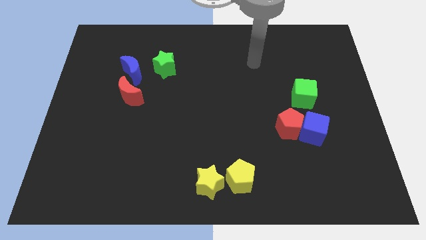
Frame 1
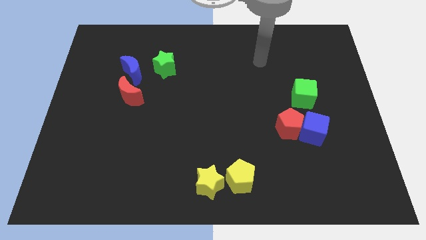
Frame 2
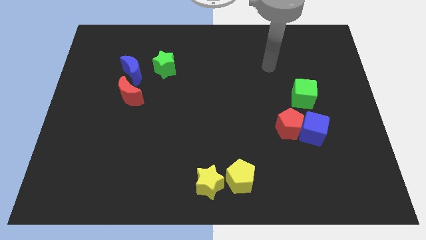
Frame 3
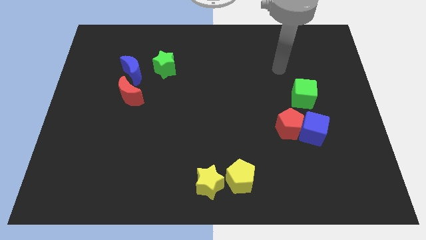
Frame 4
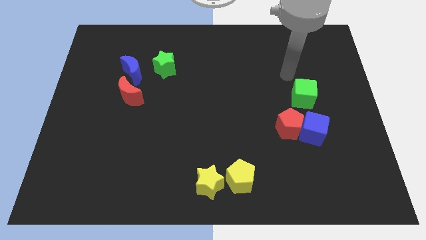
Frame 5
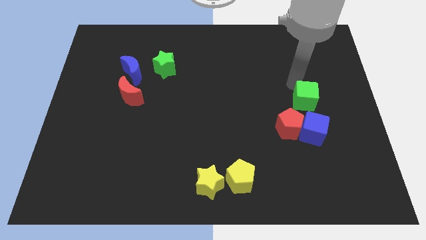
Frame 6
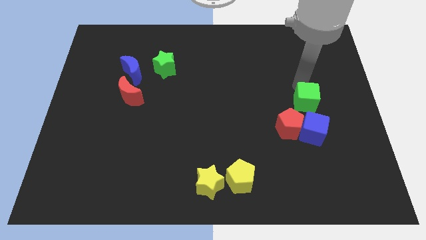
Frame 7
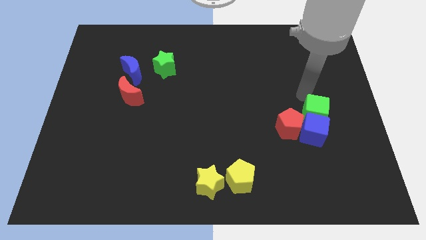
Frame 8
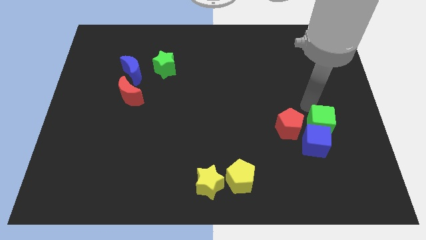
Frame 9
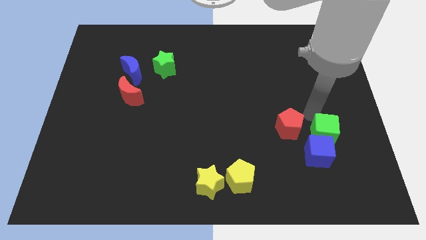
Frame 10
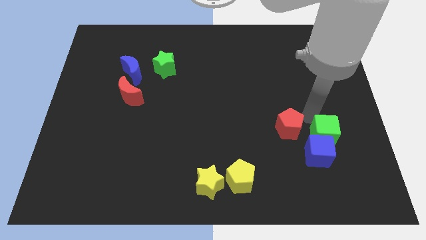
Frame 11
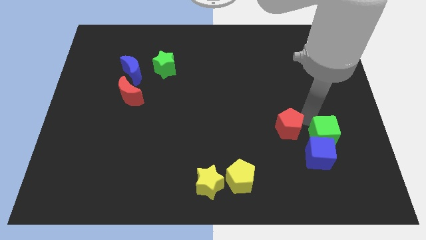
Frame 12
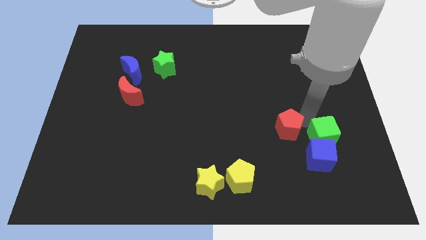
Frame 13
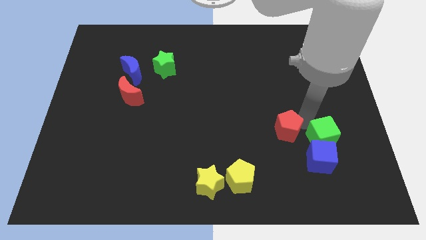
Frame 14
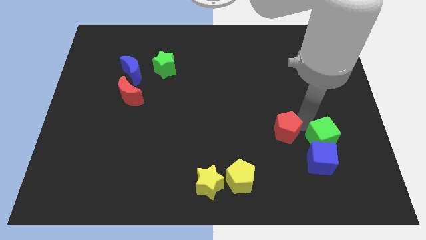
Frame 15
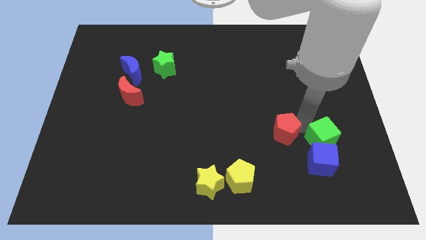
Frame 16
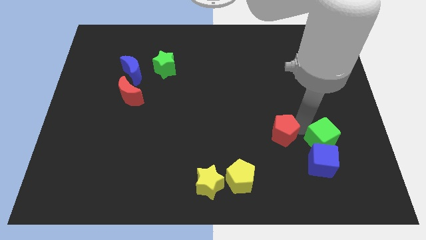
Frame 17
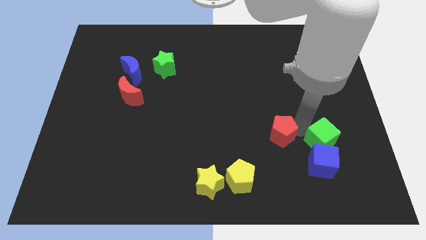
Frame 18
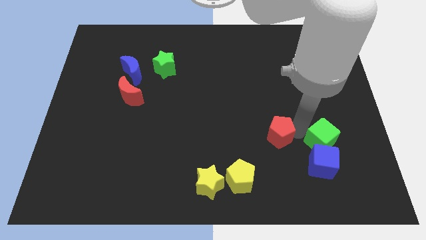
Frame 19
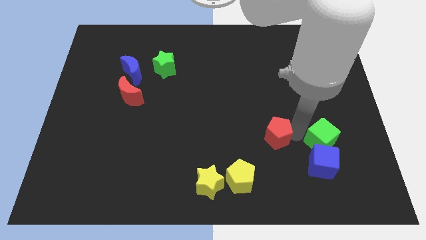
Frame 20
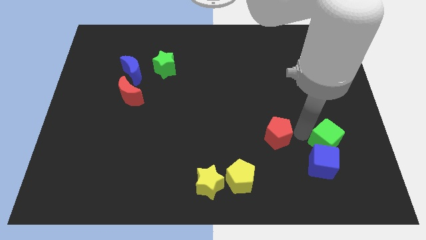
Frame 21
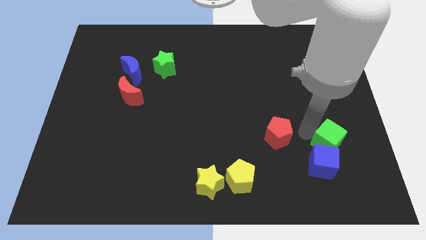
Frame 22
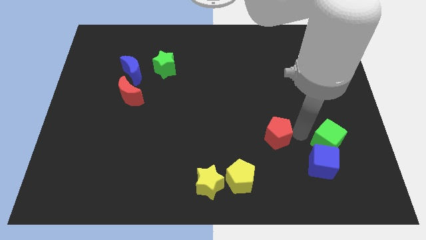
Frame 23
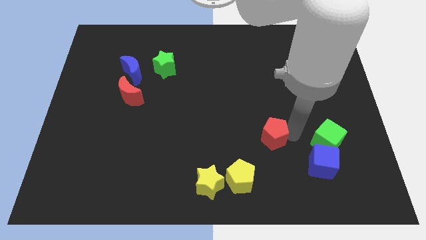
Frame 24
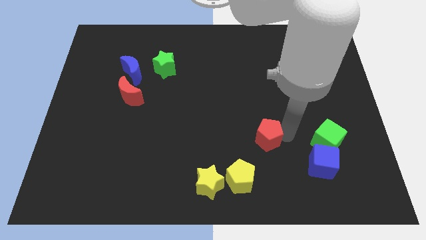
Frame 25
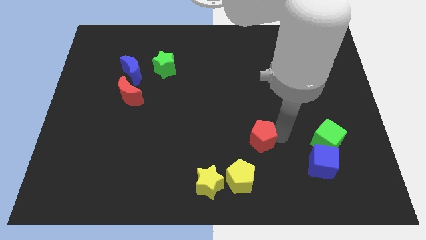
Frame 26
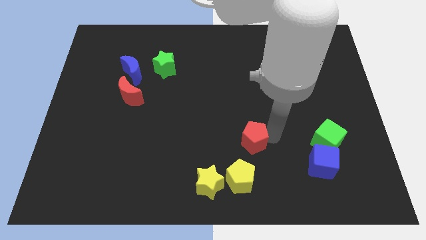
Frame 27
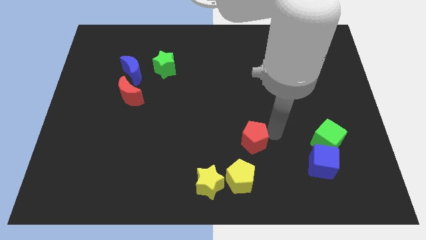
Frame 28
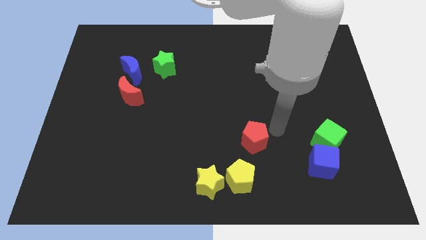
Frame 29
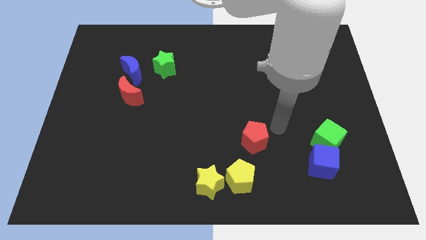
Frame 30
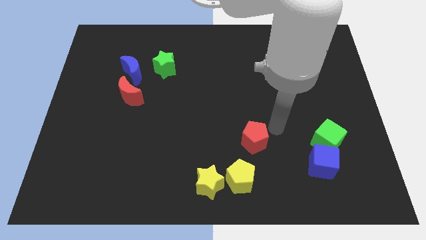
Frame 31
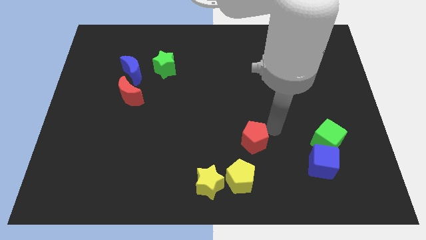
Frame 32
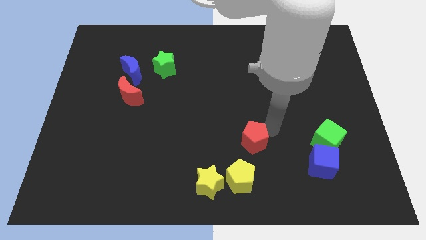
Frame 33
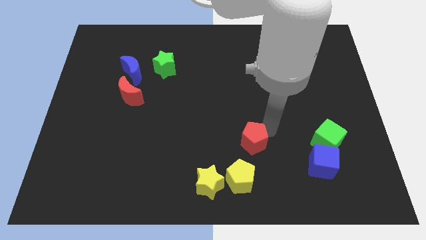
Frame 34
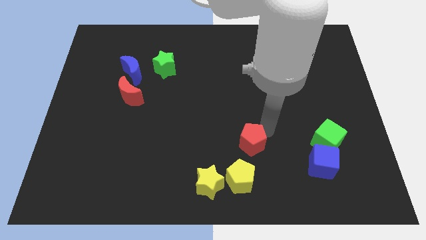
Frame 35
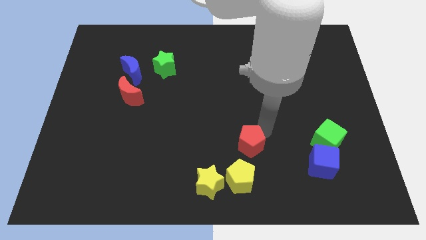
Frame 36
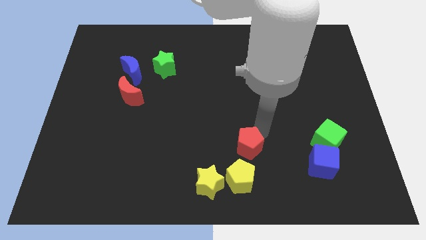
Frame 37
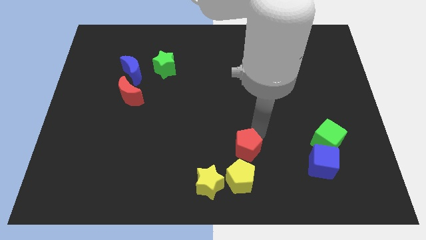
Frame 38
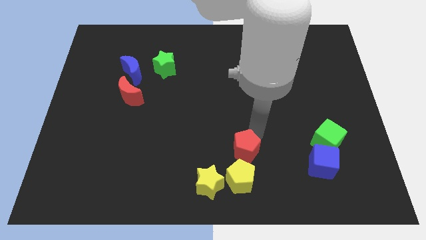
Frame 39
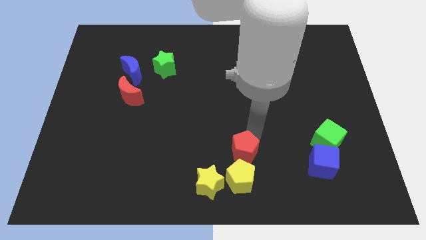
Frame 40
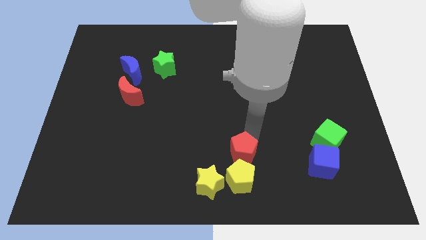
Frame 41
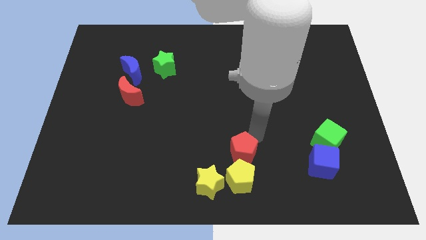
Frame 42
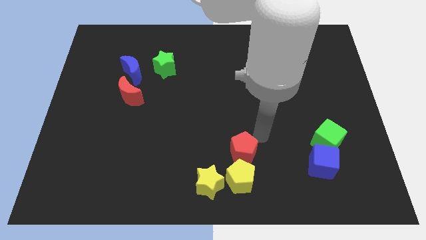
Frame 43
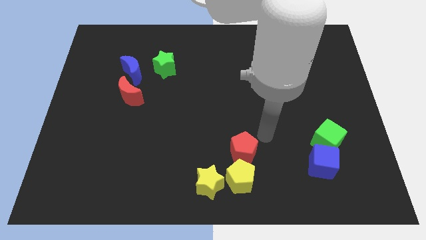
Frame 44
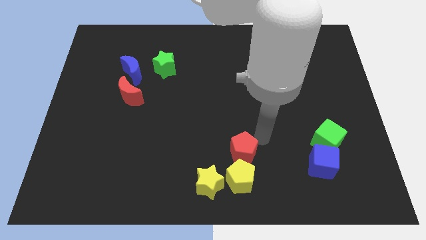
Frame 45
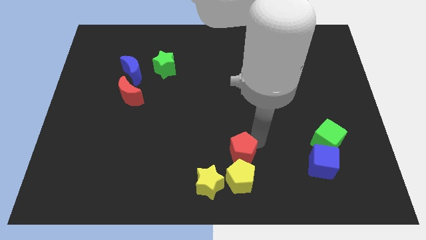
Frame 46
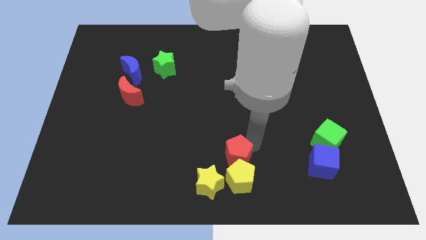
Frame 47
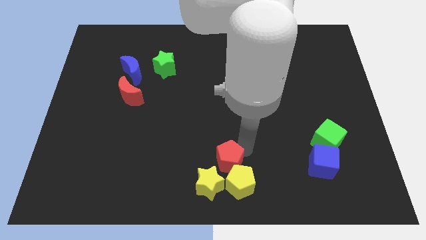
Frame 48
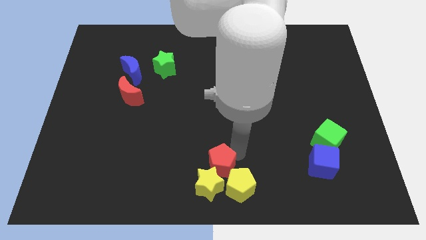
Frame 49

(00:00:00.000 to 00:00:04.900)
push the red pentagon to the yellow star

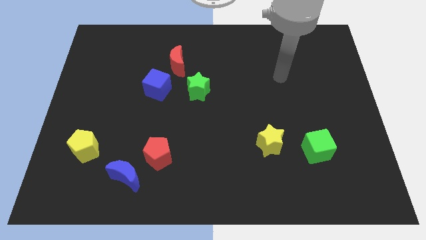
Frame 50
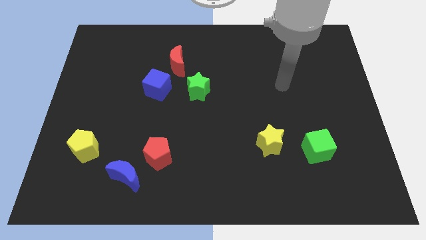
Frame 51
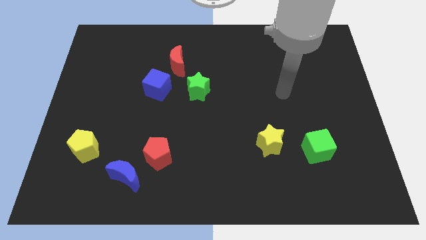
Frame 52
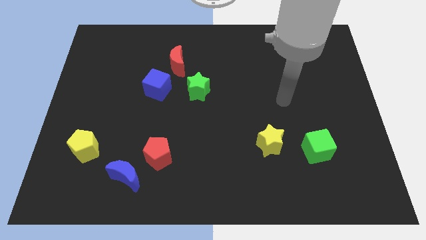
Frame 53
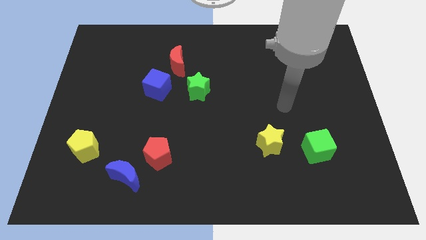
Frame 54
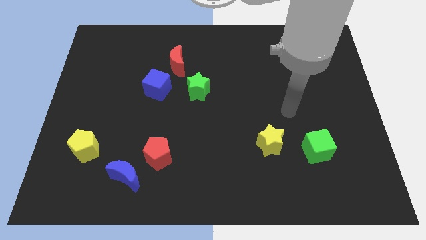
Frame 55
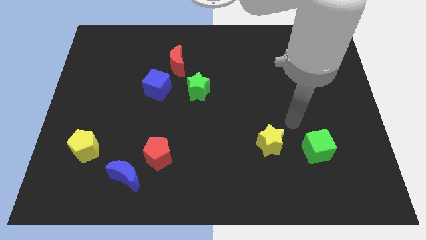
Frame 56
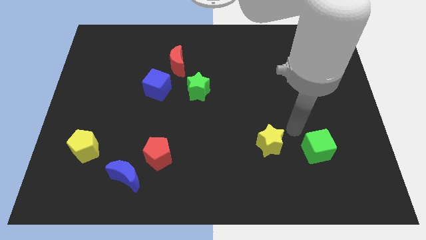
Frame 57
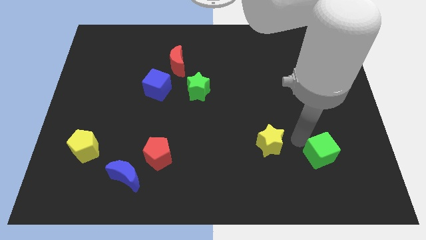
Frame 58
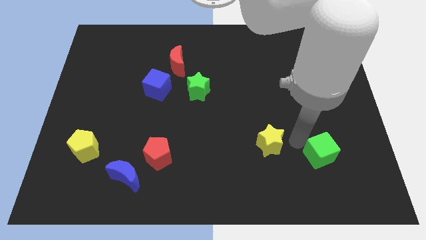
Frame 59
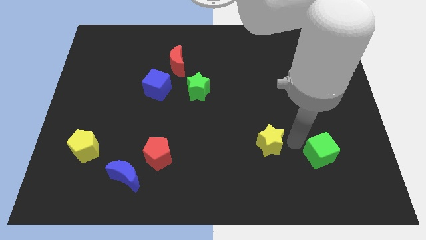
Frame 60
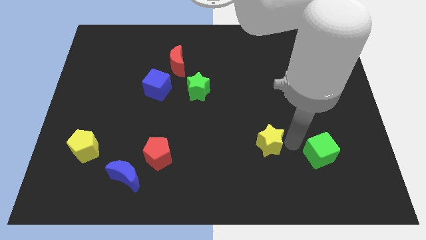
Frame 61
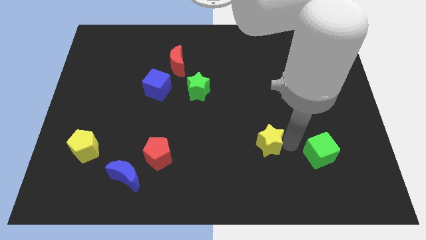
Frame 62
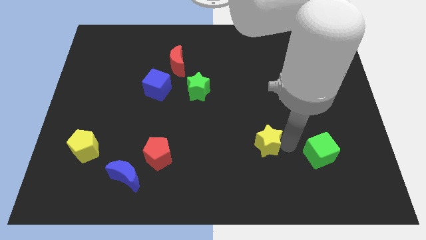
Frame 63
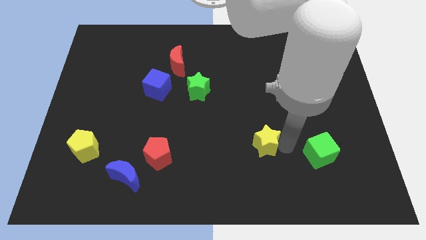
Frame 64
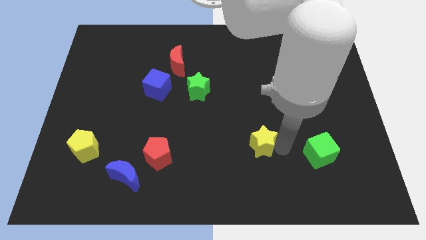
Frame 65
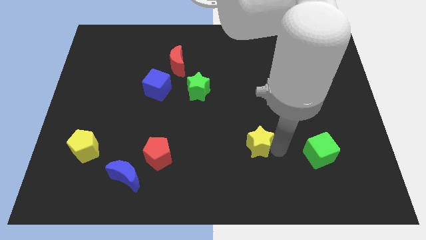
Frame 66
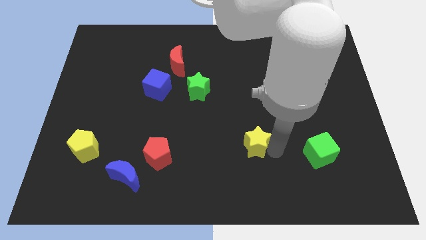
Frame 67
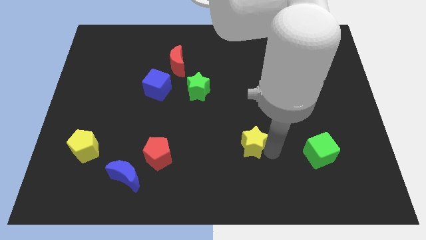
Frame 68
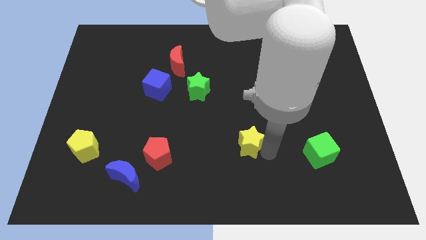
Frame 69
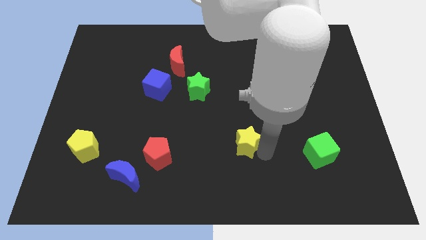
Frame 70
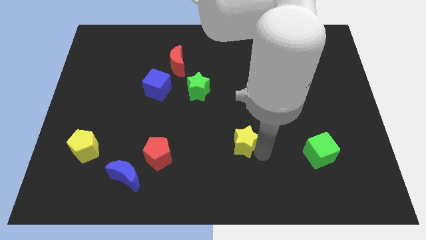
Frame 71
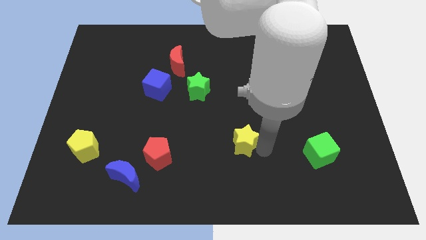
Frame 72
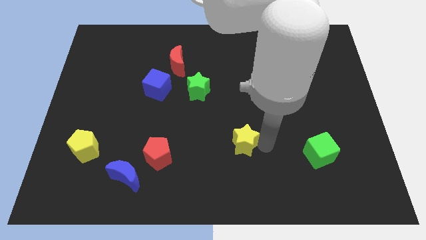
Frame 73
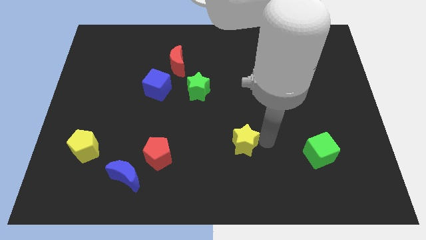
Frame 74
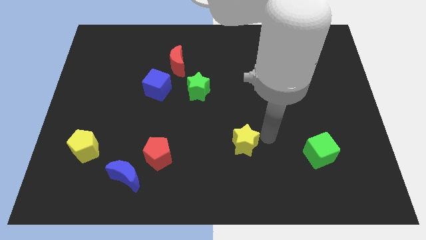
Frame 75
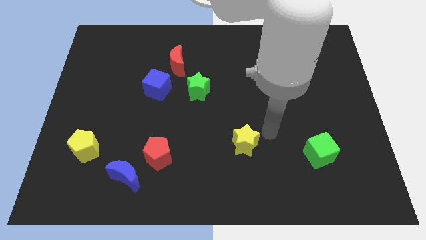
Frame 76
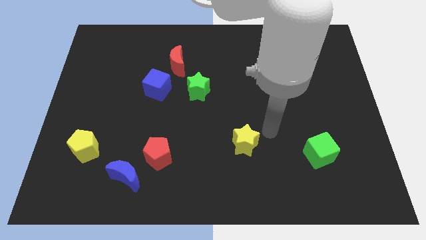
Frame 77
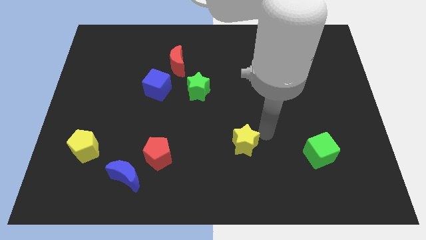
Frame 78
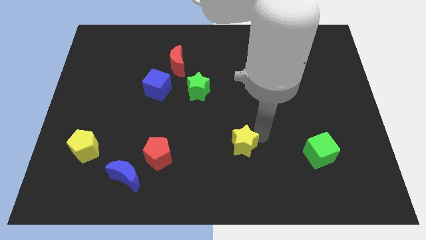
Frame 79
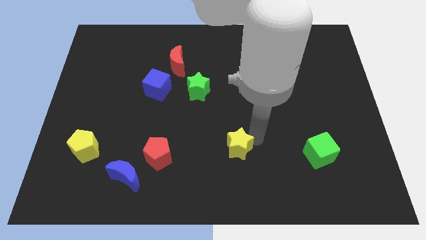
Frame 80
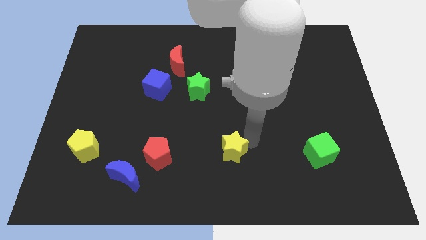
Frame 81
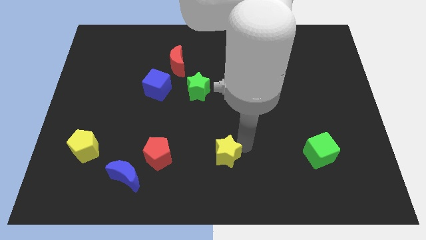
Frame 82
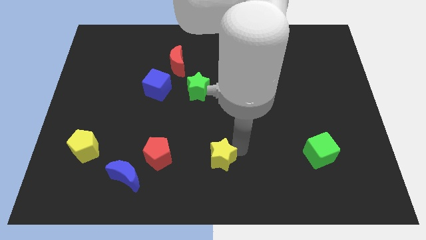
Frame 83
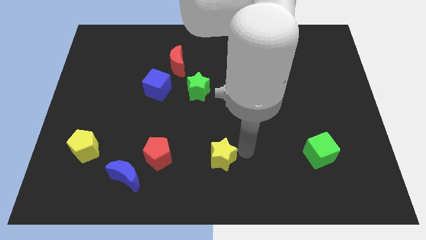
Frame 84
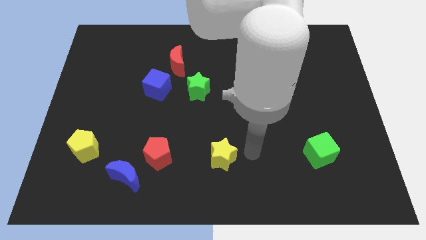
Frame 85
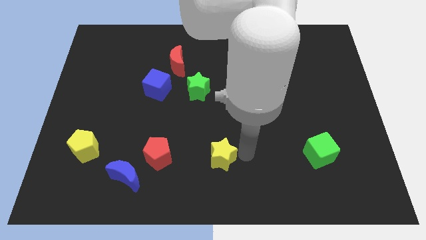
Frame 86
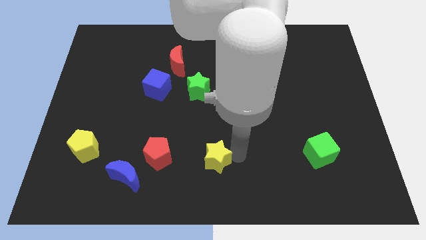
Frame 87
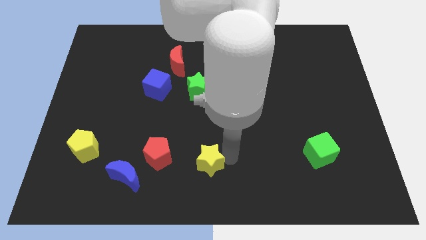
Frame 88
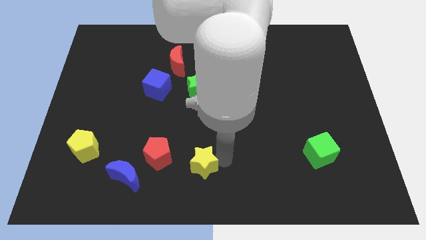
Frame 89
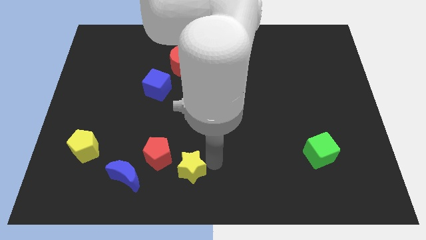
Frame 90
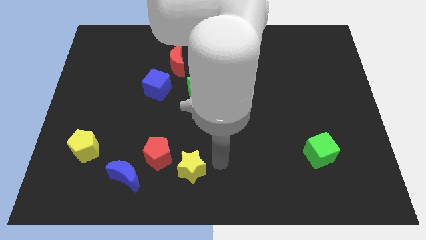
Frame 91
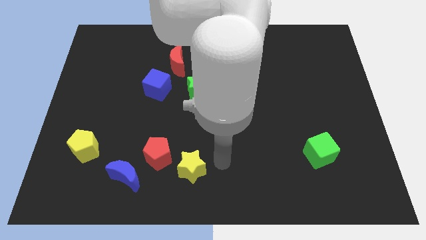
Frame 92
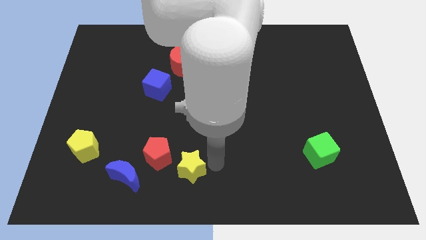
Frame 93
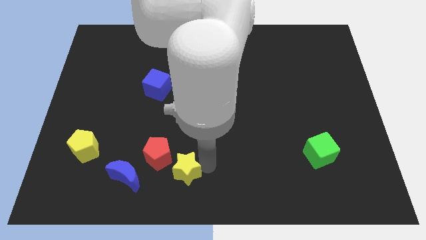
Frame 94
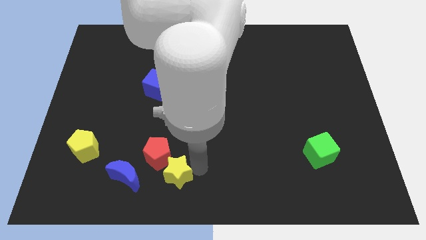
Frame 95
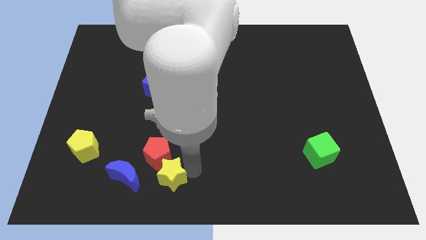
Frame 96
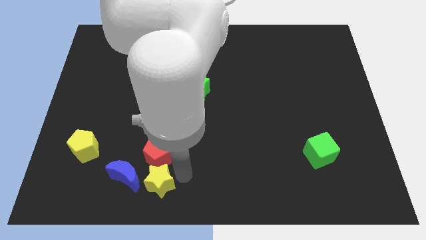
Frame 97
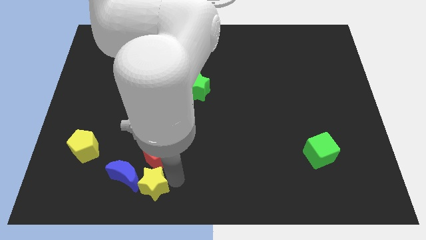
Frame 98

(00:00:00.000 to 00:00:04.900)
move the yellow star to the blue moon
